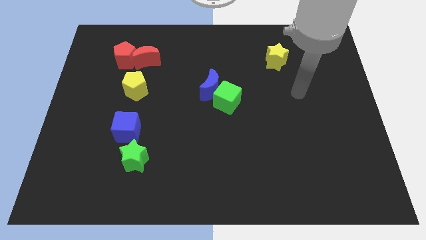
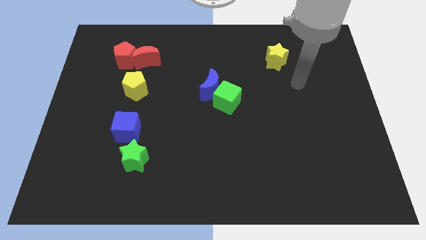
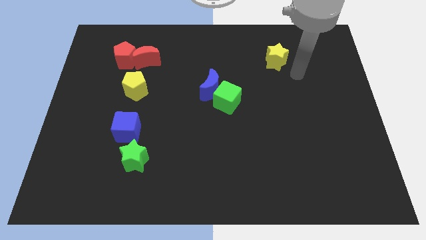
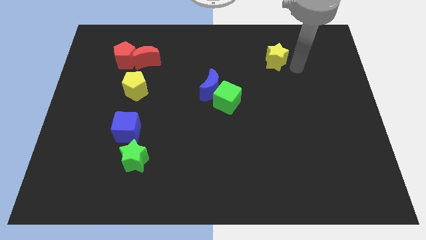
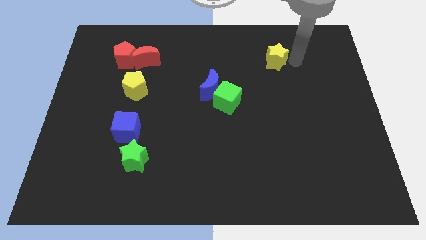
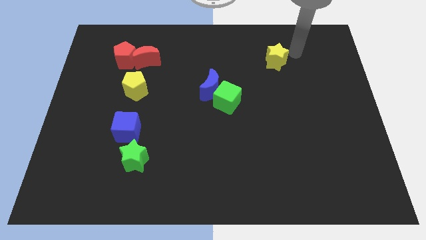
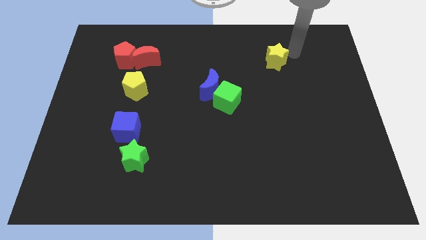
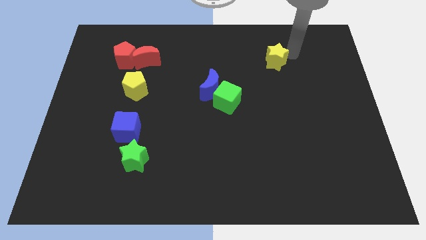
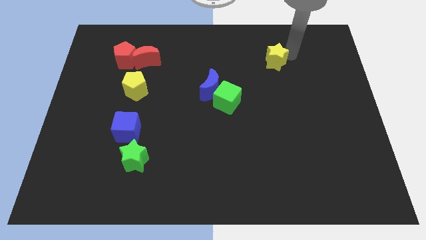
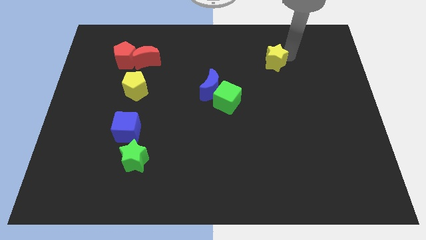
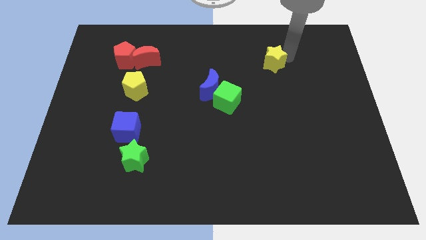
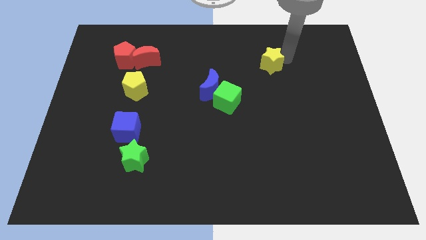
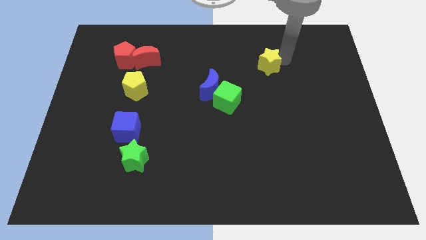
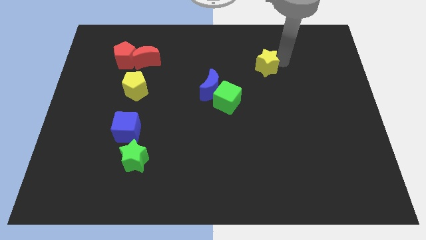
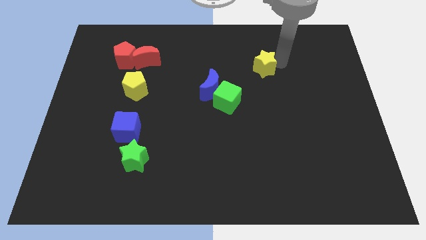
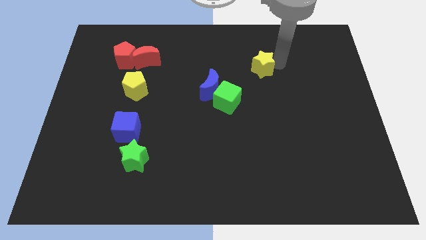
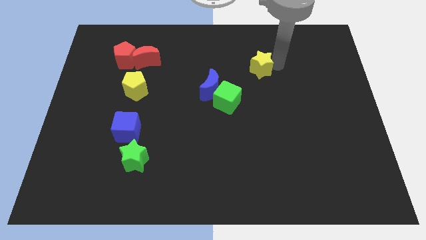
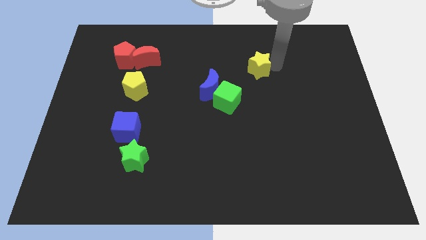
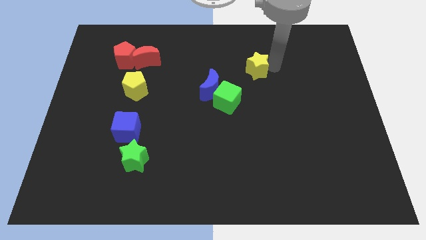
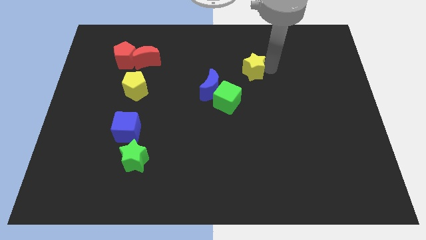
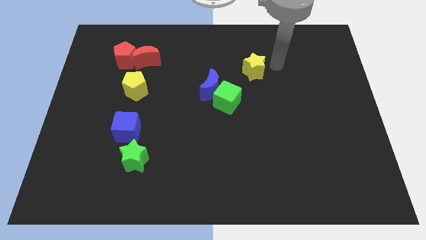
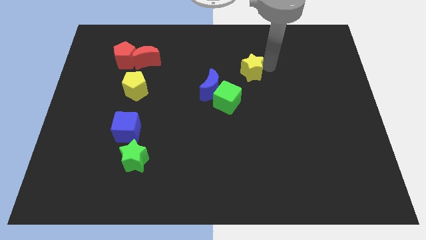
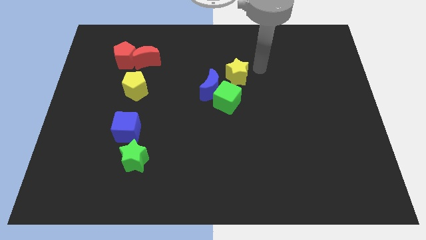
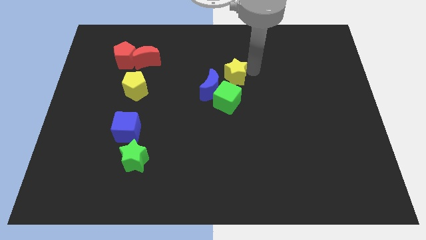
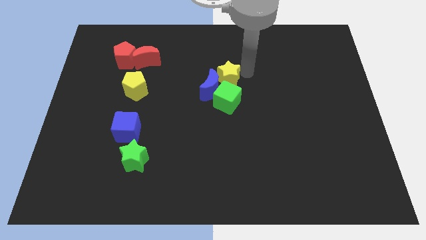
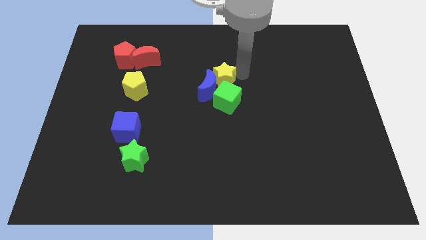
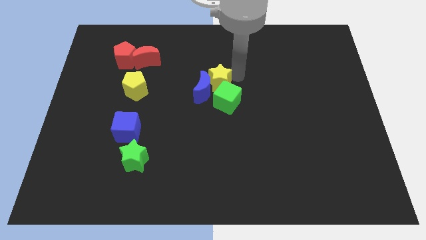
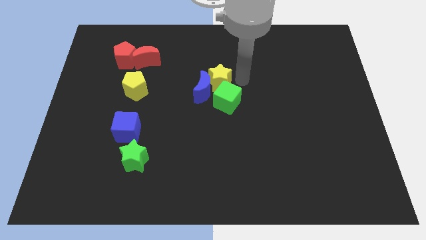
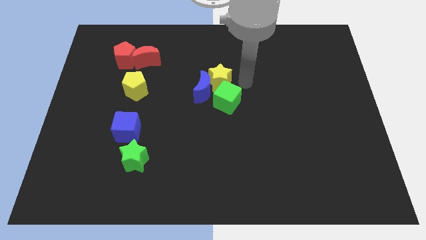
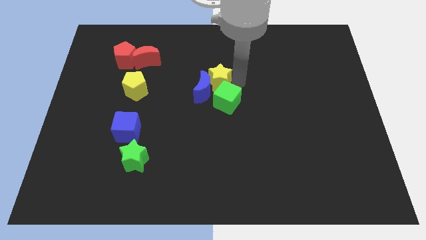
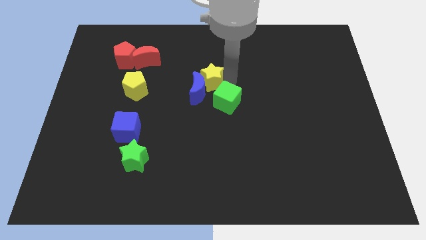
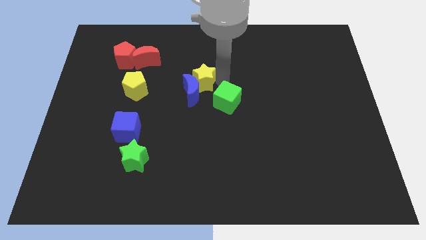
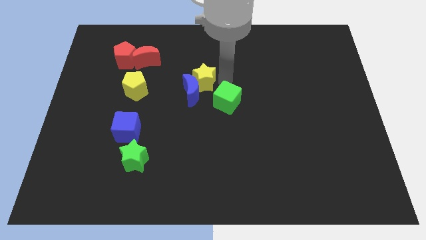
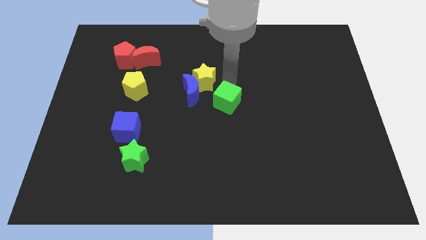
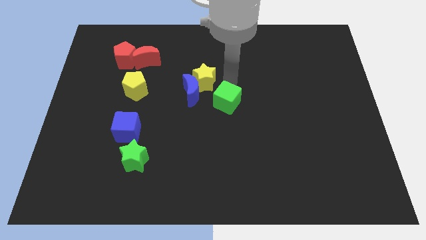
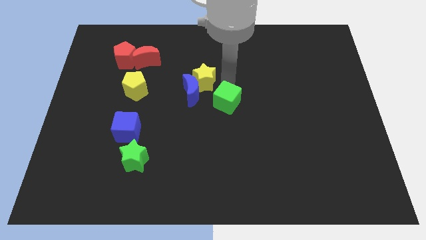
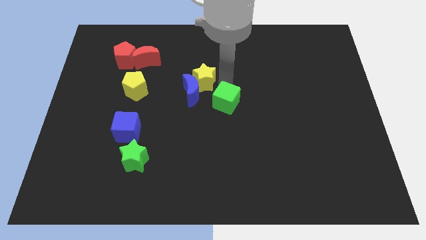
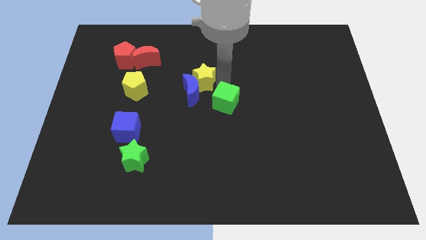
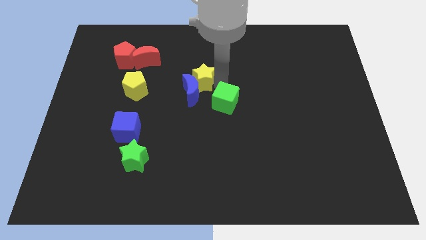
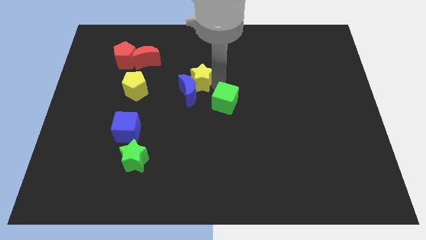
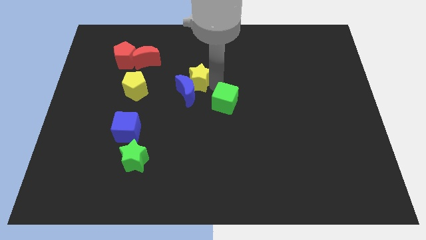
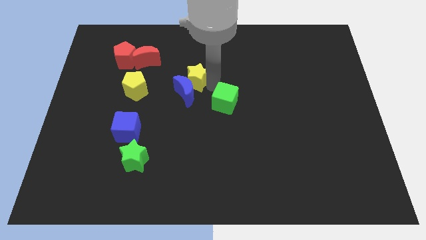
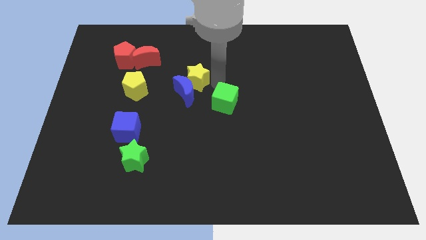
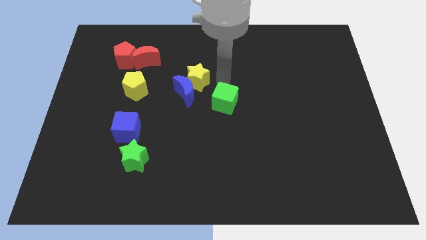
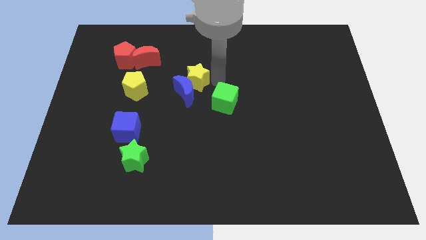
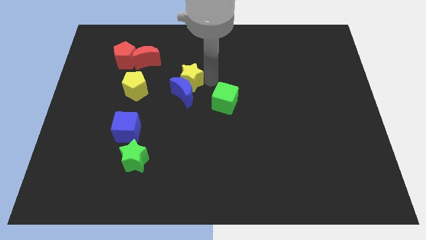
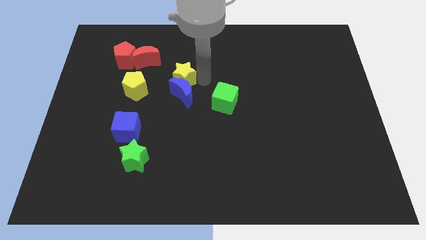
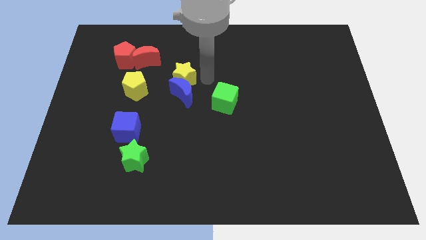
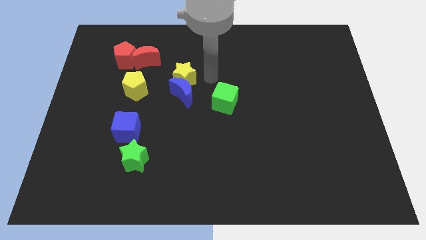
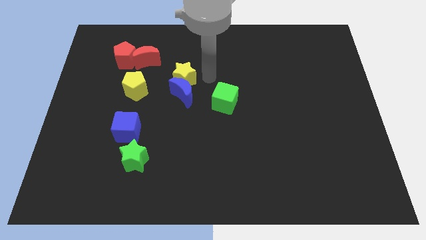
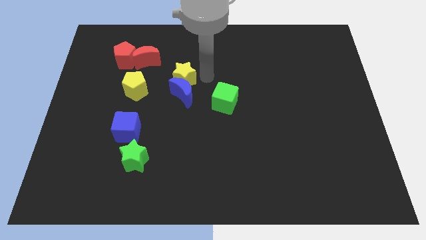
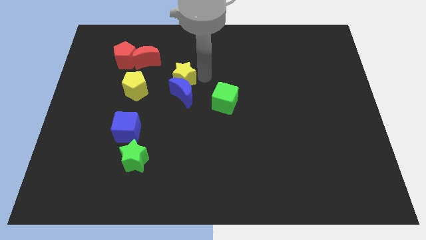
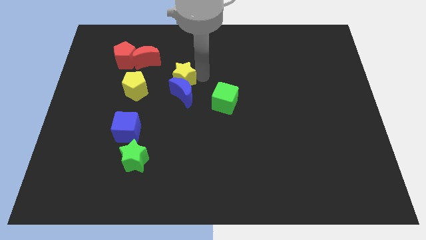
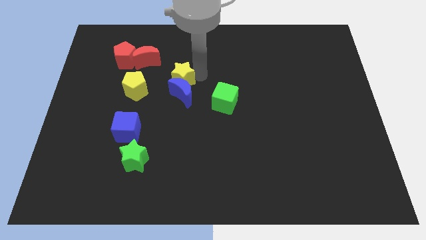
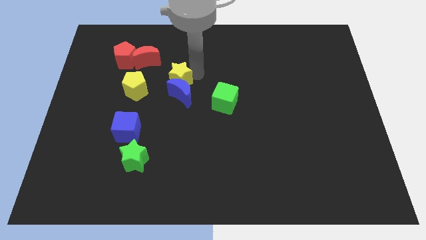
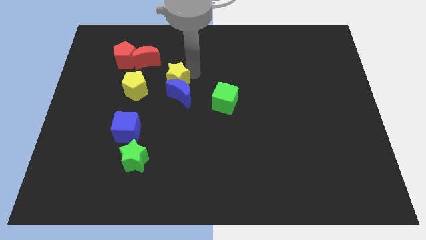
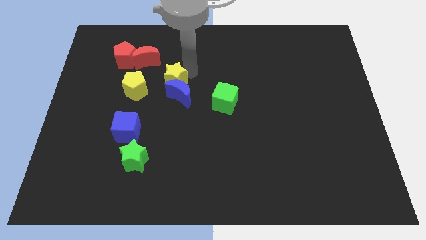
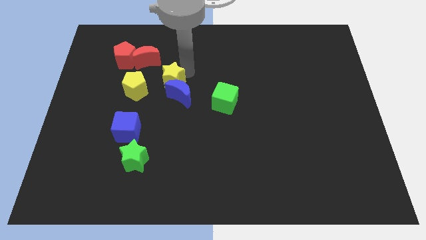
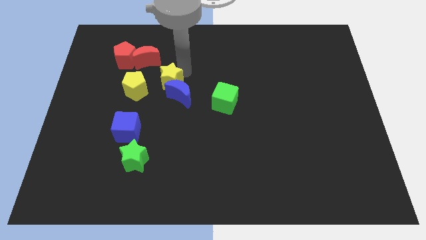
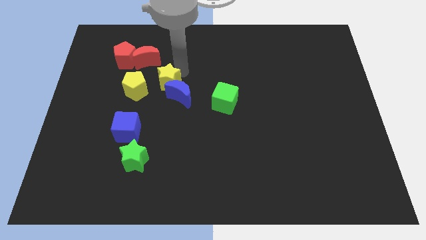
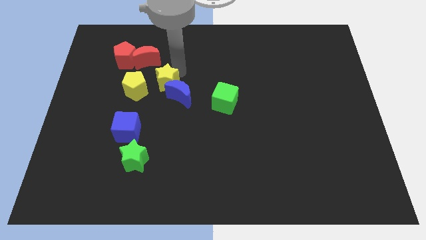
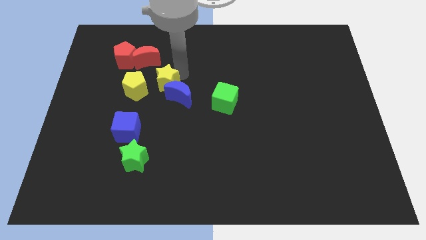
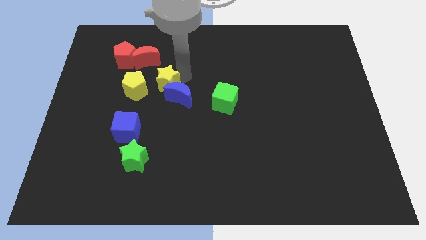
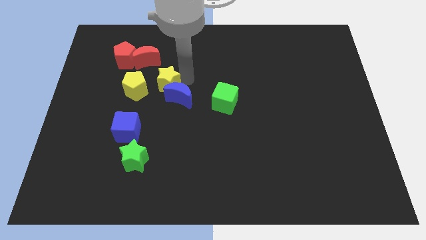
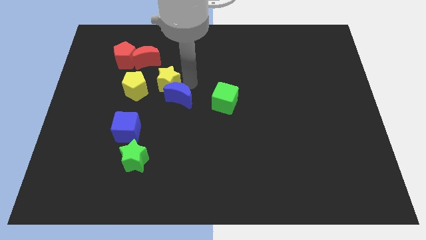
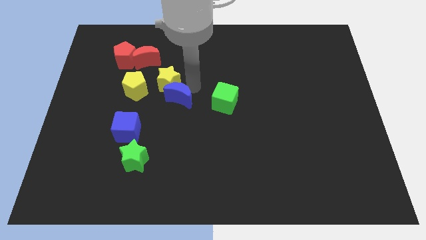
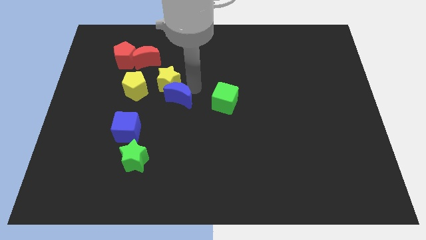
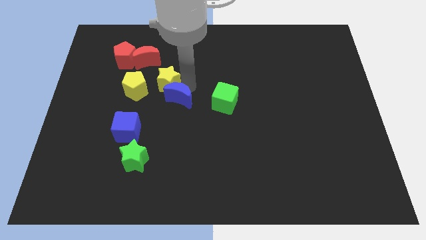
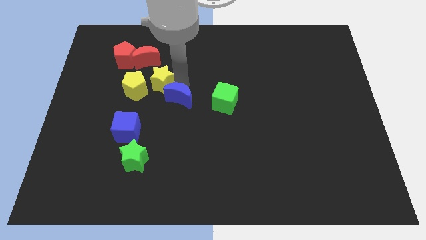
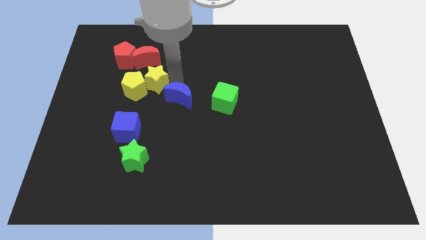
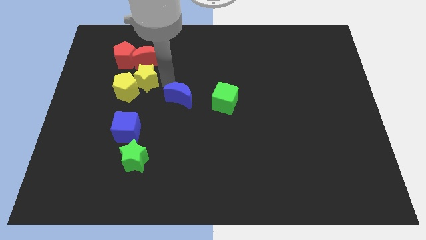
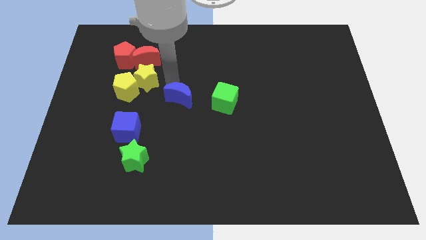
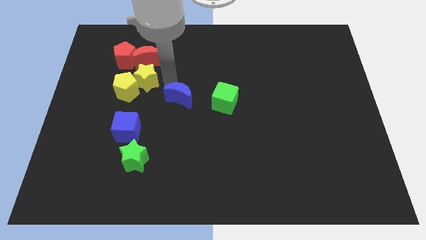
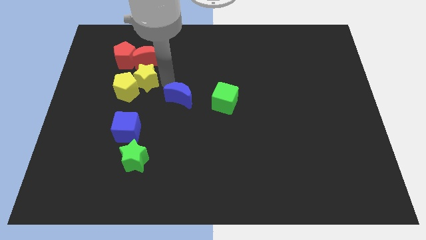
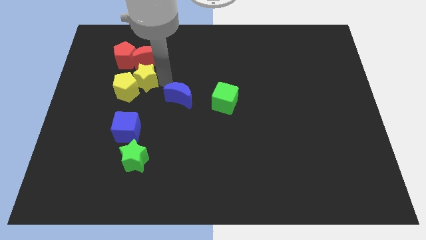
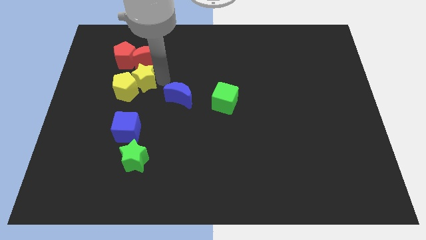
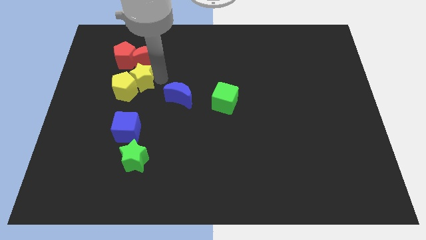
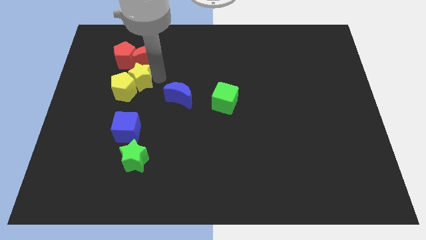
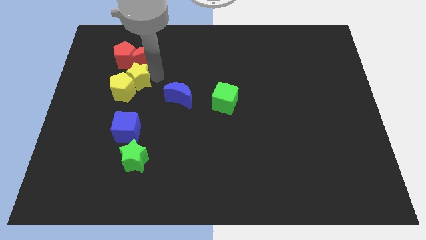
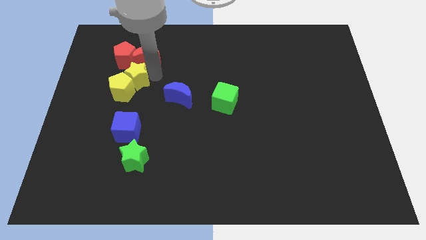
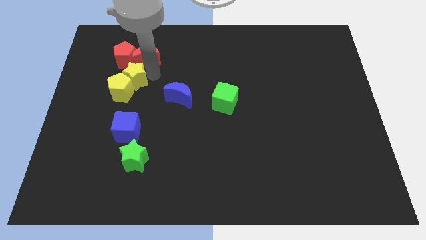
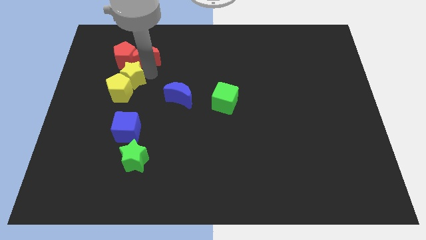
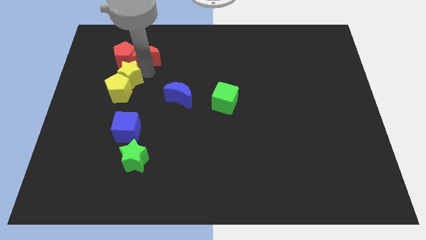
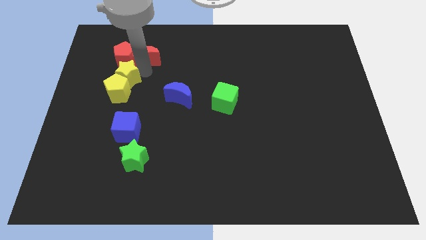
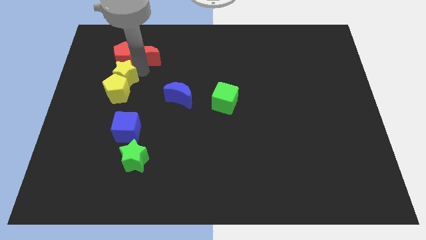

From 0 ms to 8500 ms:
move the yellow star to the bottom left side of the red pentagon
